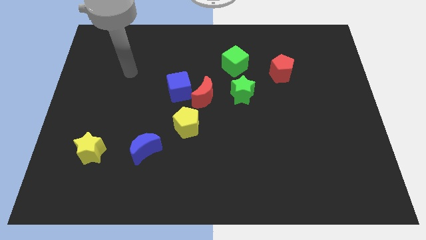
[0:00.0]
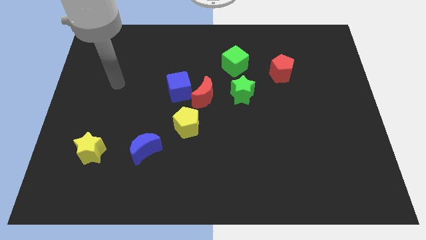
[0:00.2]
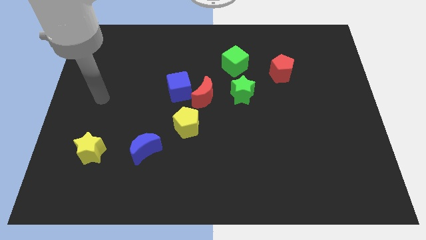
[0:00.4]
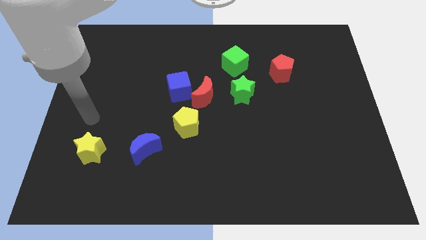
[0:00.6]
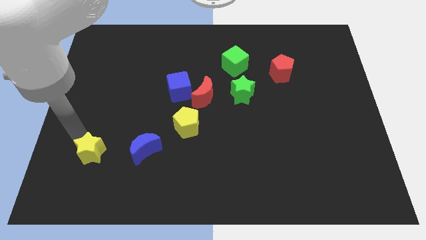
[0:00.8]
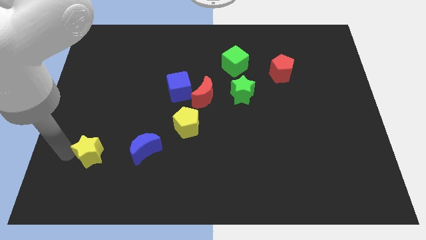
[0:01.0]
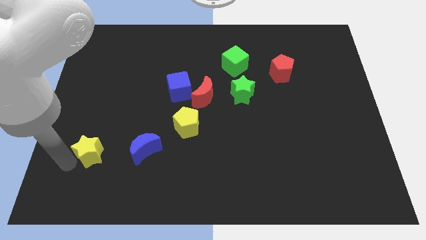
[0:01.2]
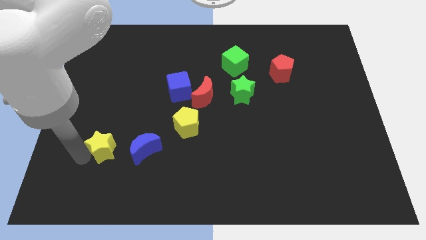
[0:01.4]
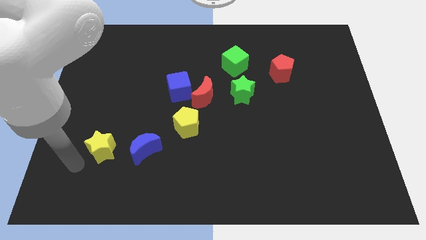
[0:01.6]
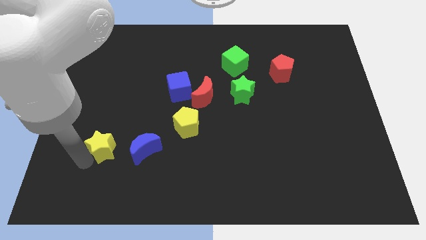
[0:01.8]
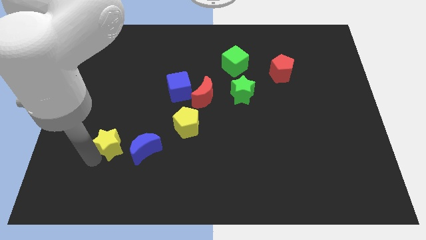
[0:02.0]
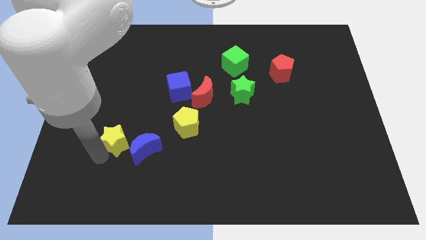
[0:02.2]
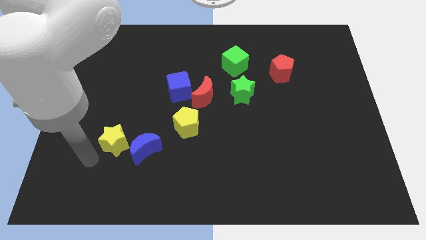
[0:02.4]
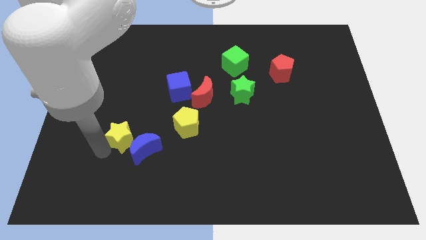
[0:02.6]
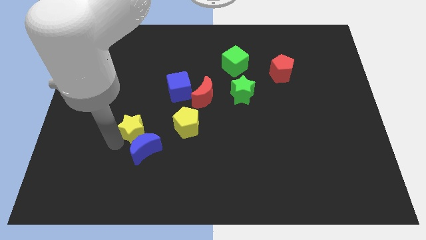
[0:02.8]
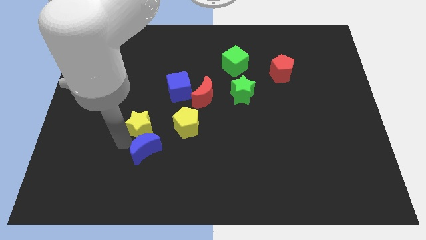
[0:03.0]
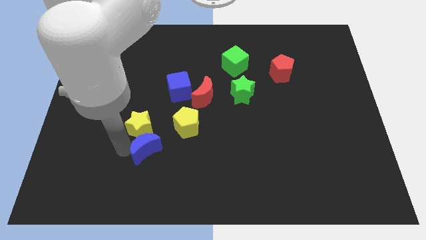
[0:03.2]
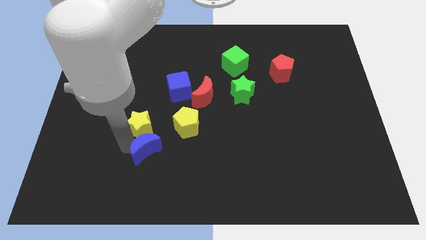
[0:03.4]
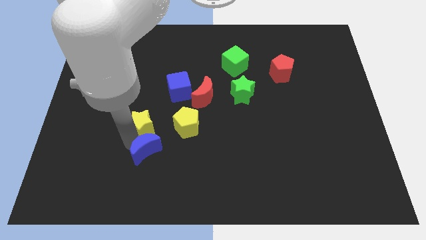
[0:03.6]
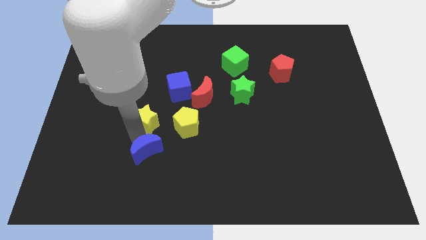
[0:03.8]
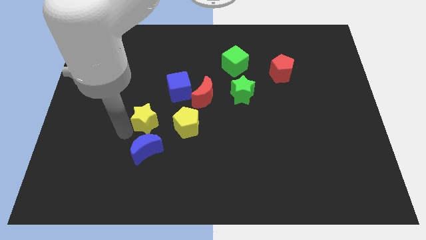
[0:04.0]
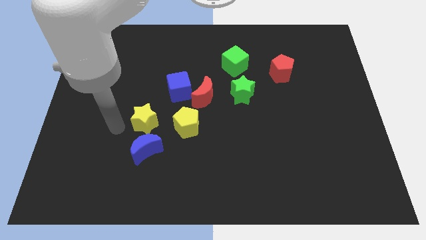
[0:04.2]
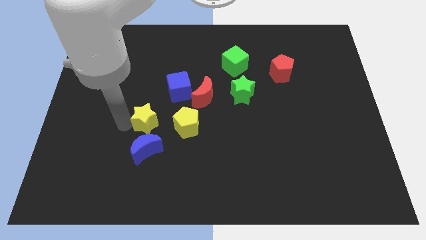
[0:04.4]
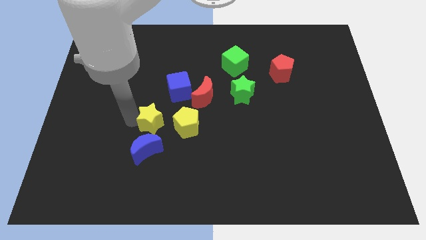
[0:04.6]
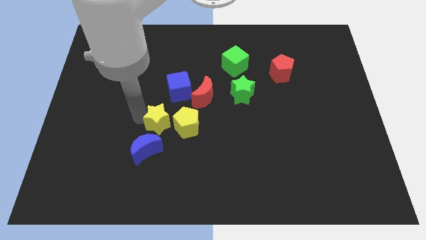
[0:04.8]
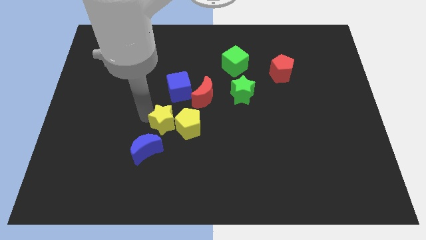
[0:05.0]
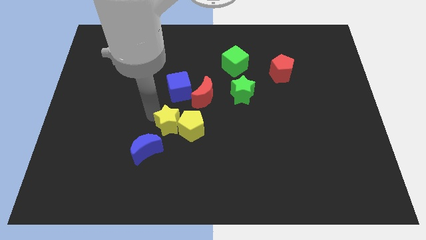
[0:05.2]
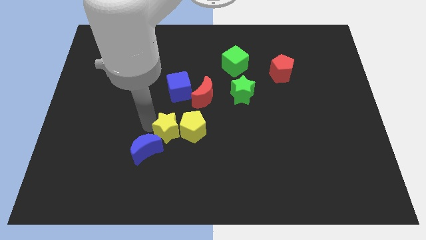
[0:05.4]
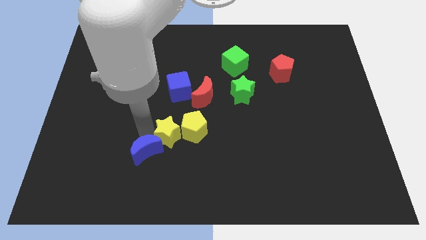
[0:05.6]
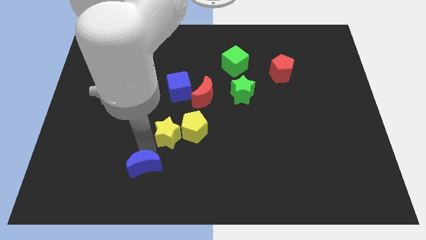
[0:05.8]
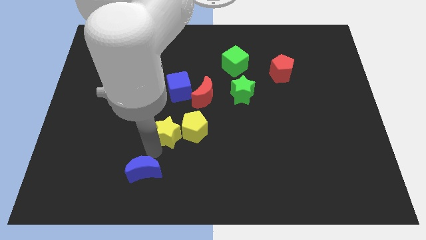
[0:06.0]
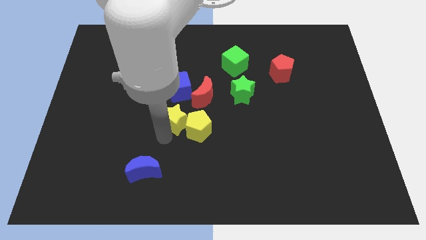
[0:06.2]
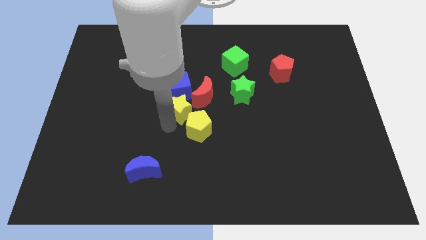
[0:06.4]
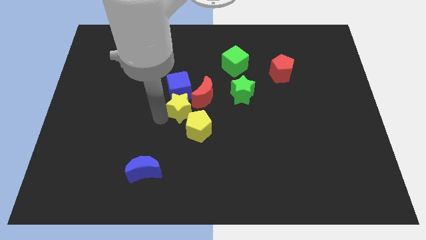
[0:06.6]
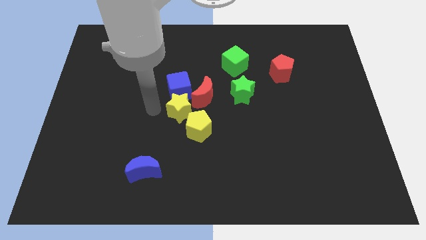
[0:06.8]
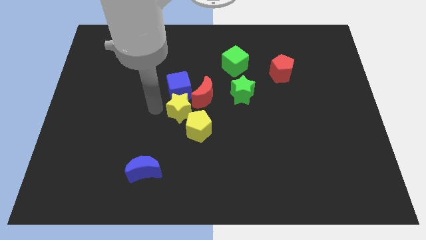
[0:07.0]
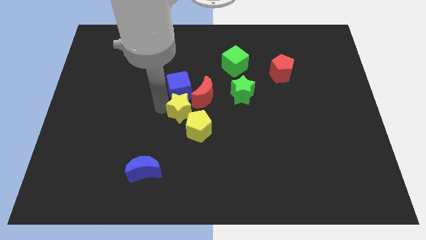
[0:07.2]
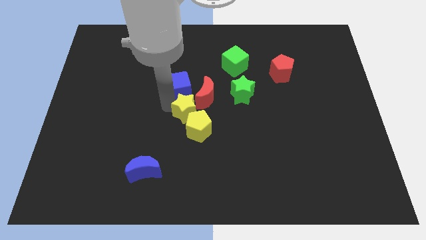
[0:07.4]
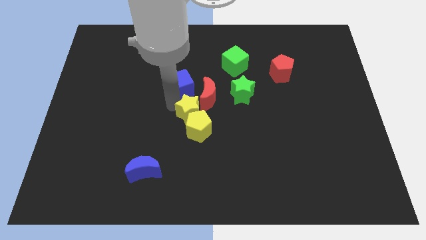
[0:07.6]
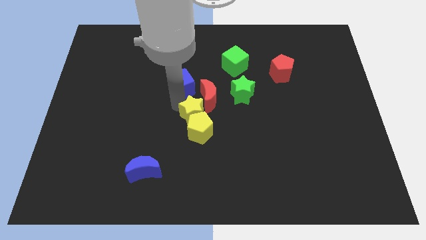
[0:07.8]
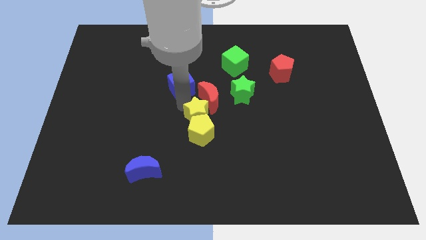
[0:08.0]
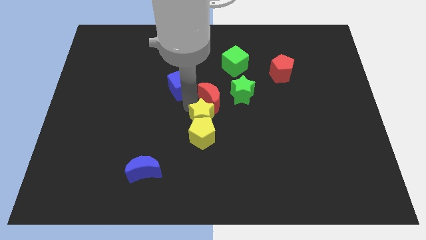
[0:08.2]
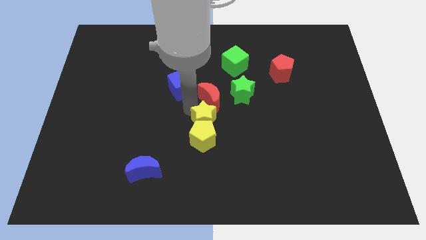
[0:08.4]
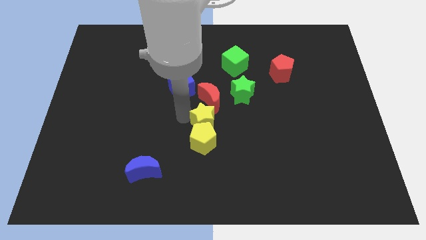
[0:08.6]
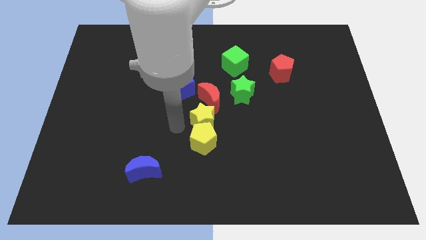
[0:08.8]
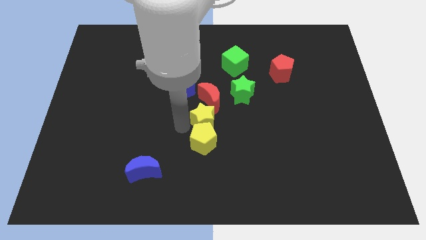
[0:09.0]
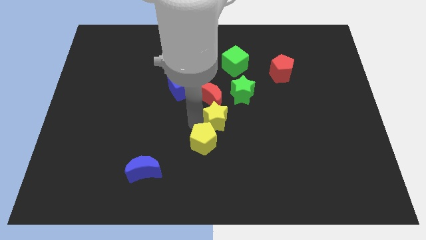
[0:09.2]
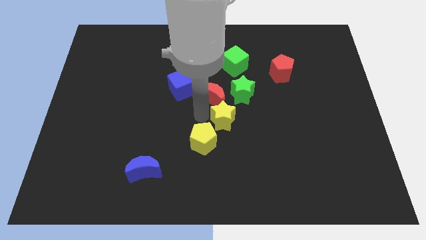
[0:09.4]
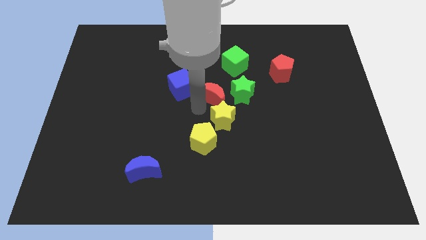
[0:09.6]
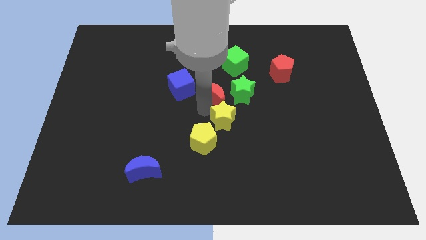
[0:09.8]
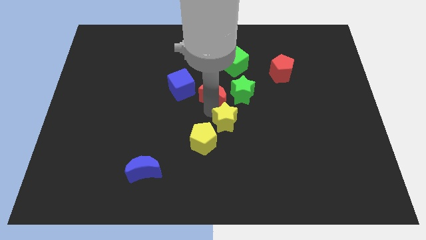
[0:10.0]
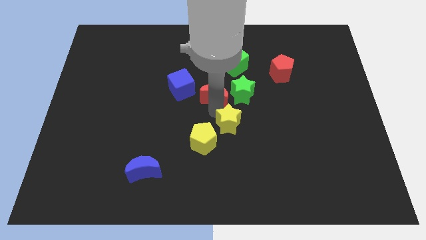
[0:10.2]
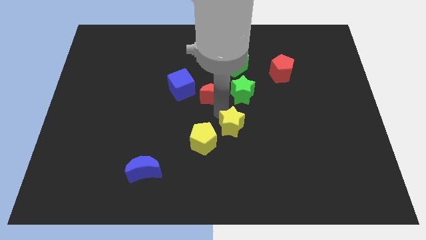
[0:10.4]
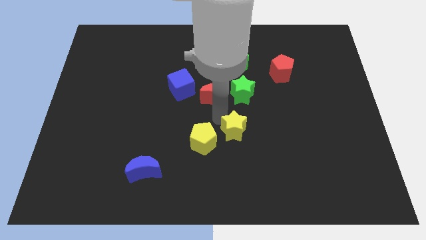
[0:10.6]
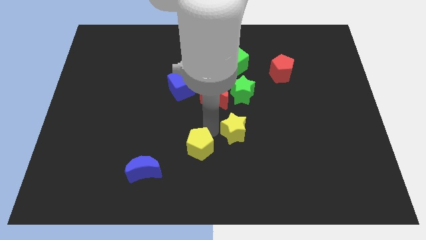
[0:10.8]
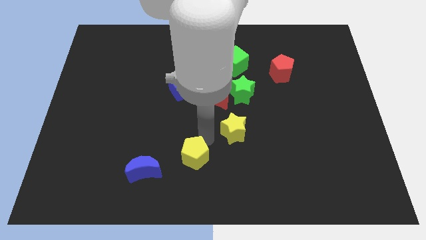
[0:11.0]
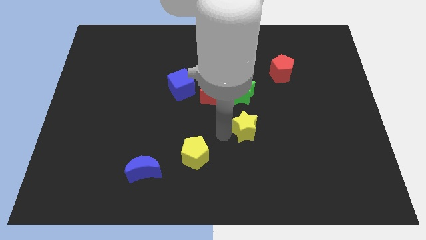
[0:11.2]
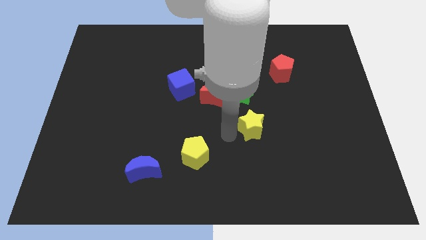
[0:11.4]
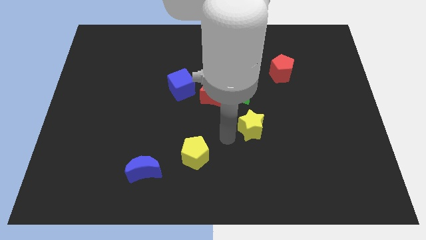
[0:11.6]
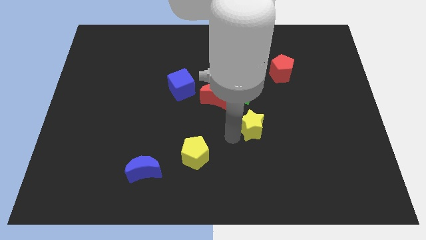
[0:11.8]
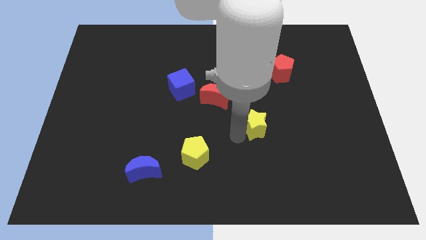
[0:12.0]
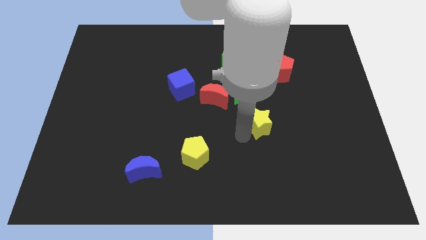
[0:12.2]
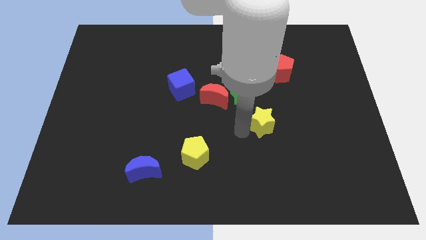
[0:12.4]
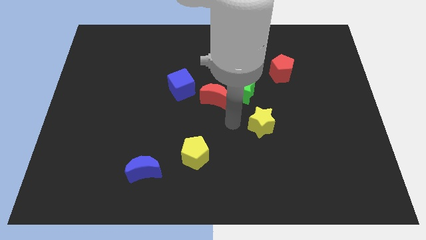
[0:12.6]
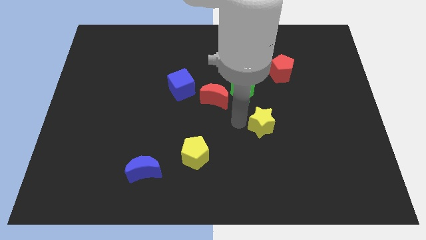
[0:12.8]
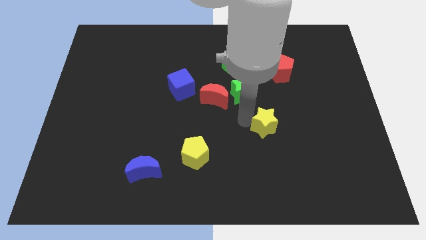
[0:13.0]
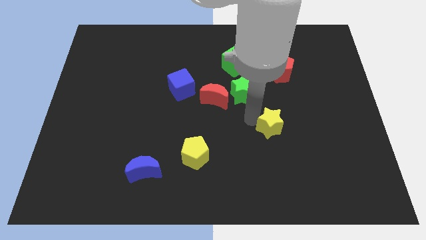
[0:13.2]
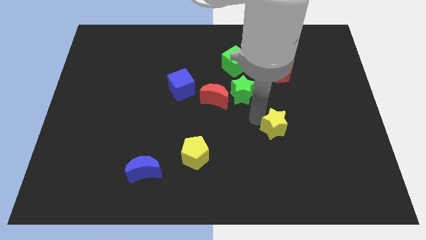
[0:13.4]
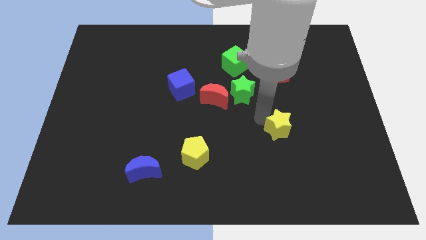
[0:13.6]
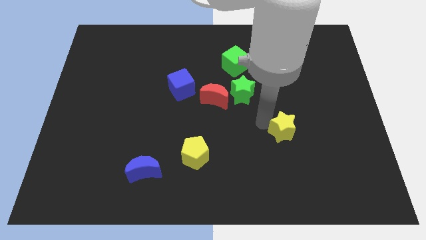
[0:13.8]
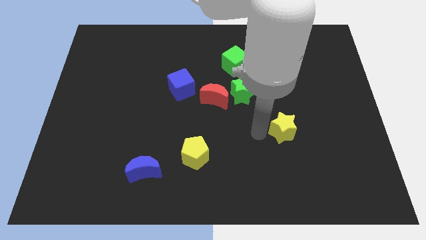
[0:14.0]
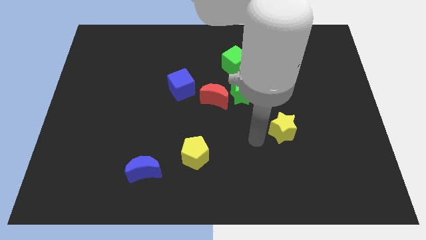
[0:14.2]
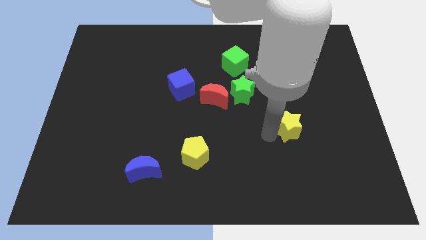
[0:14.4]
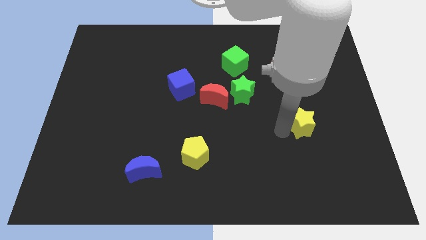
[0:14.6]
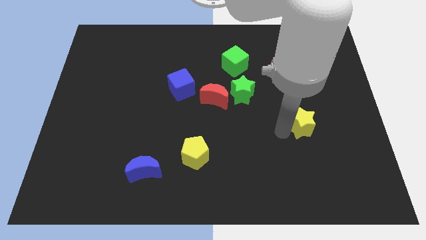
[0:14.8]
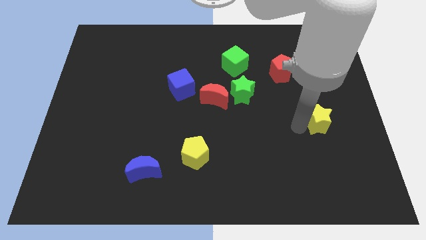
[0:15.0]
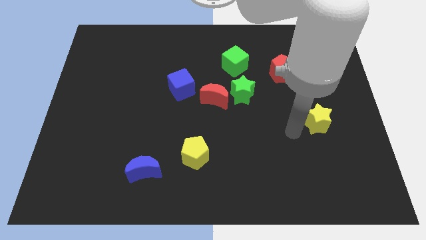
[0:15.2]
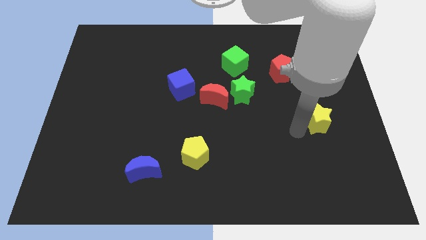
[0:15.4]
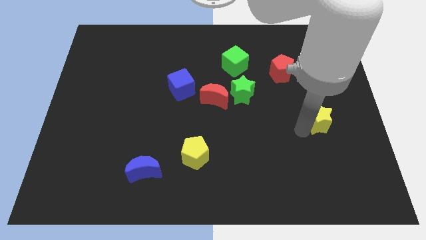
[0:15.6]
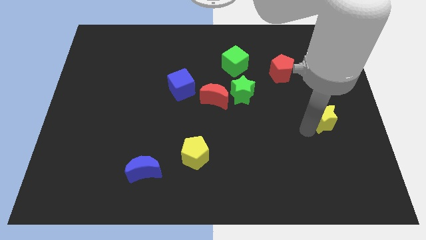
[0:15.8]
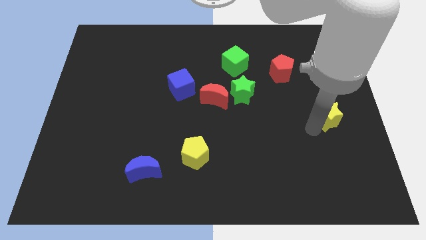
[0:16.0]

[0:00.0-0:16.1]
move the yellow star to the right side
